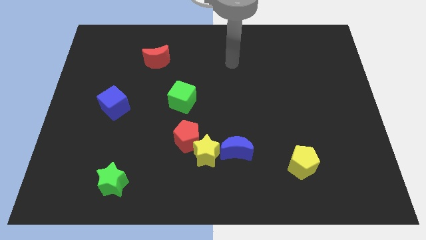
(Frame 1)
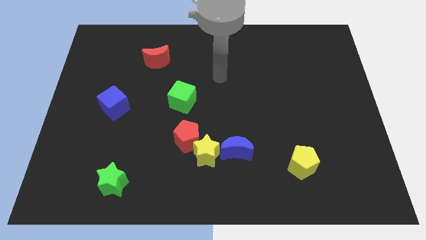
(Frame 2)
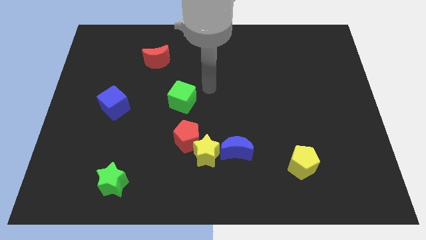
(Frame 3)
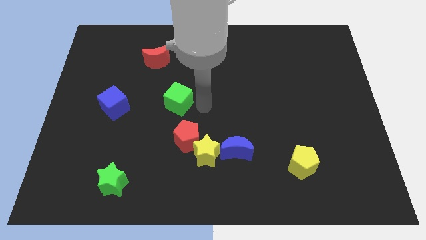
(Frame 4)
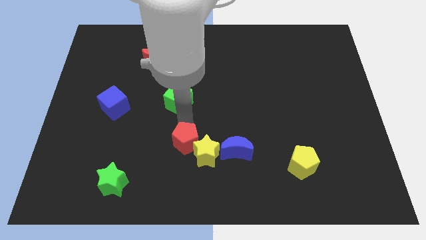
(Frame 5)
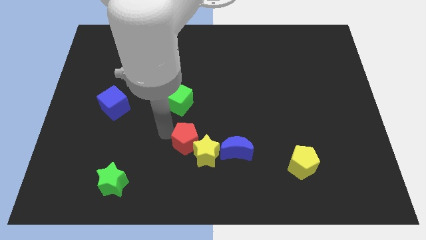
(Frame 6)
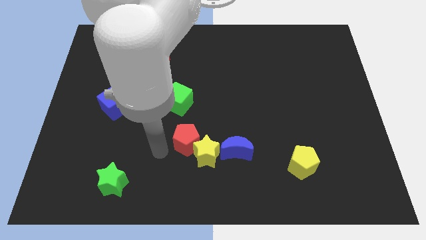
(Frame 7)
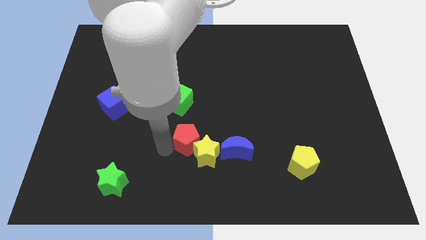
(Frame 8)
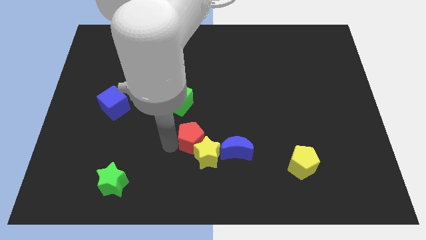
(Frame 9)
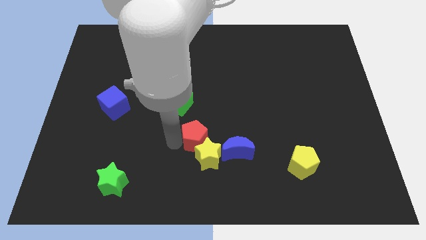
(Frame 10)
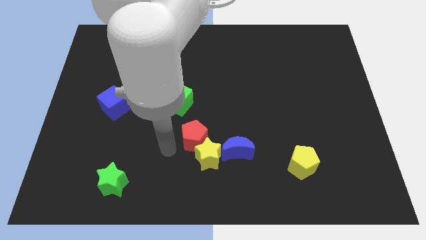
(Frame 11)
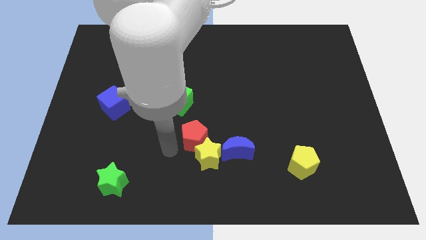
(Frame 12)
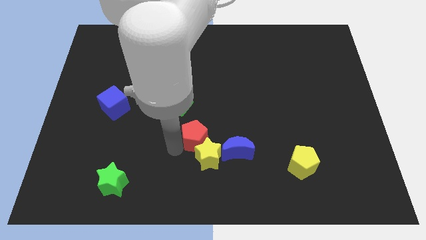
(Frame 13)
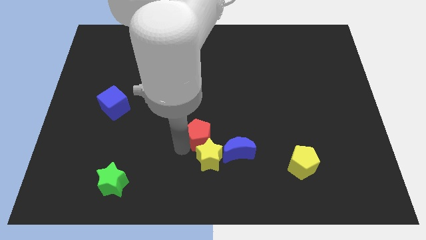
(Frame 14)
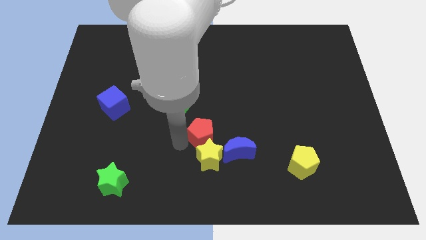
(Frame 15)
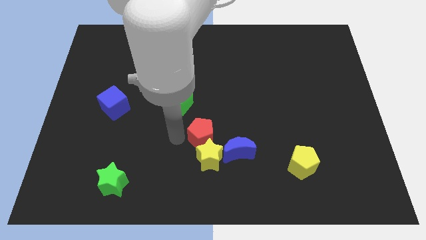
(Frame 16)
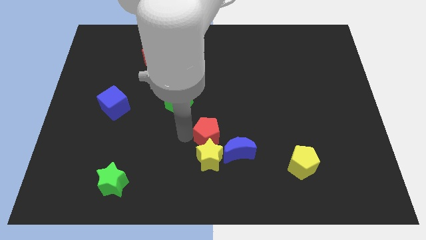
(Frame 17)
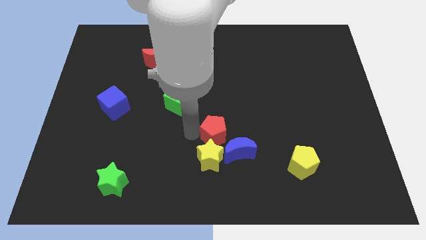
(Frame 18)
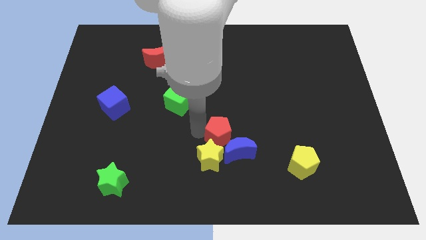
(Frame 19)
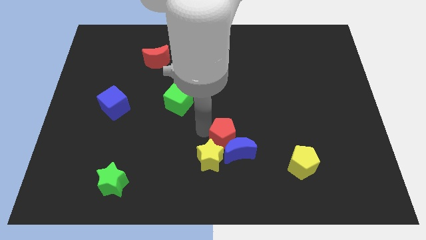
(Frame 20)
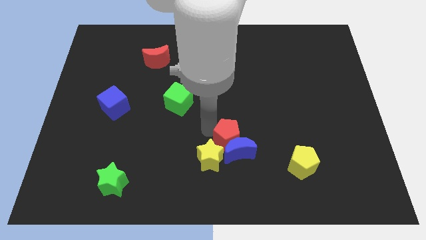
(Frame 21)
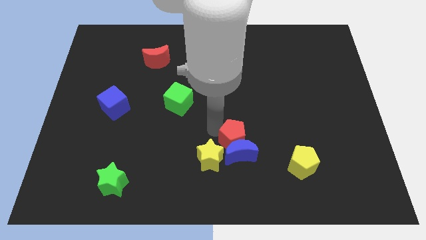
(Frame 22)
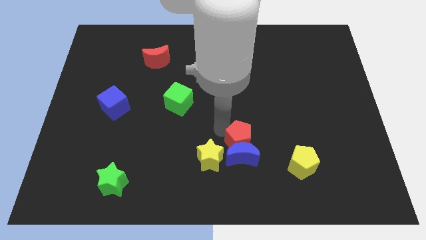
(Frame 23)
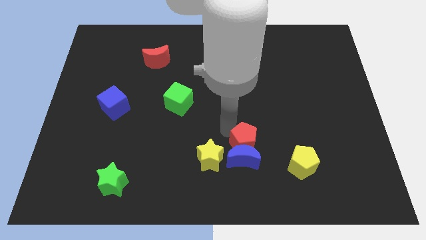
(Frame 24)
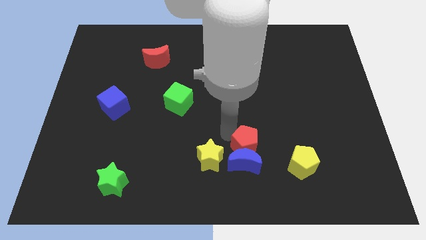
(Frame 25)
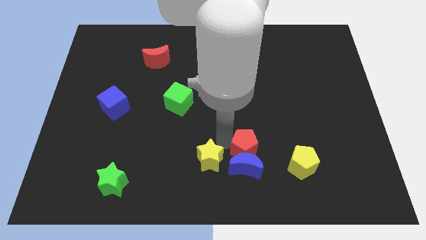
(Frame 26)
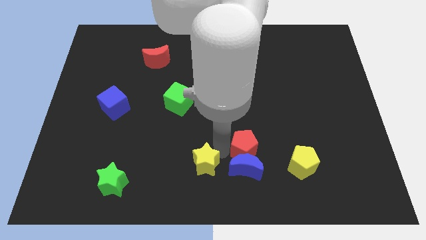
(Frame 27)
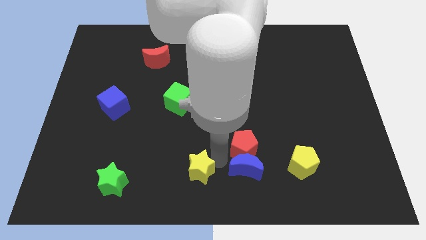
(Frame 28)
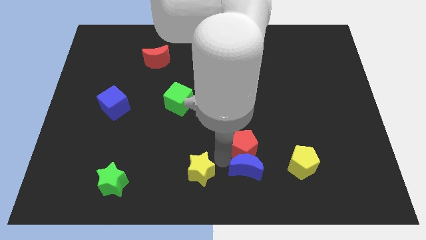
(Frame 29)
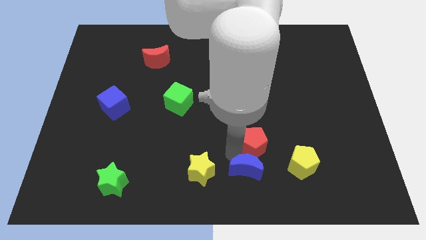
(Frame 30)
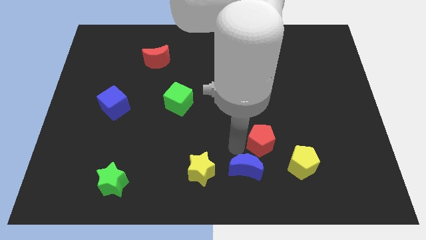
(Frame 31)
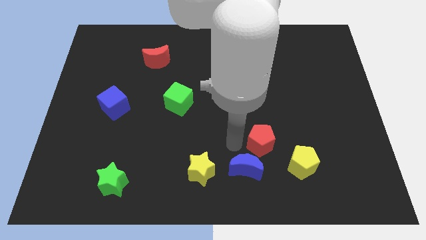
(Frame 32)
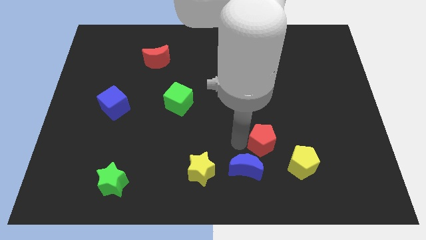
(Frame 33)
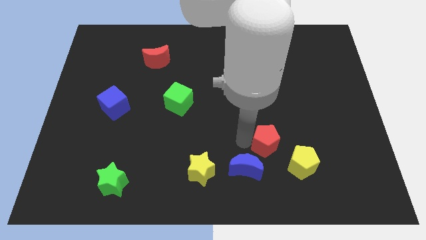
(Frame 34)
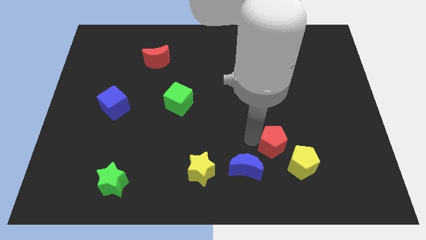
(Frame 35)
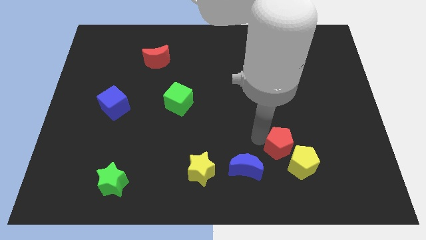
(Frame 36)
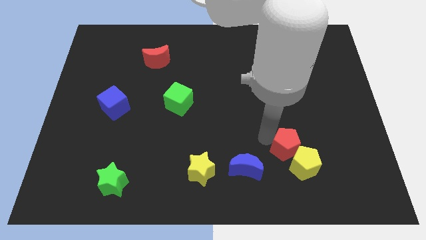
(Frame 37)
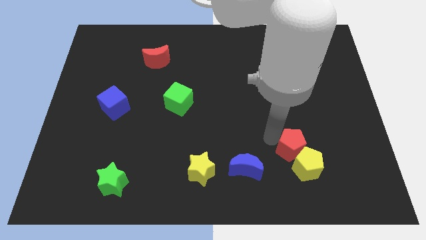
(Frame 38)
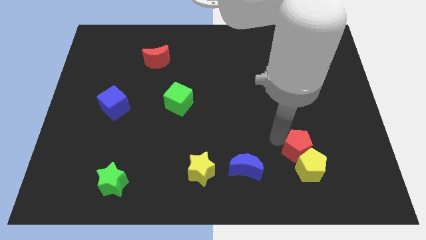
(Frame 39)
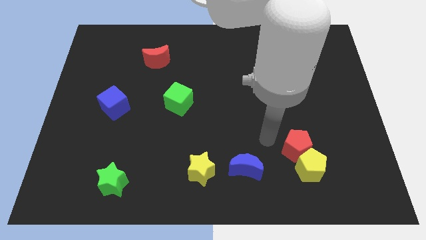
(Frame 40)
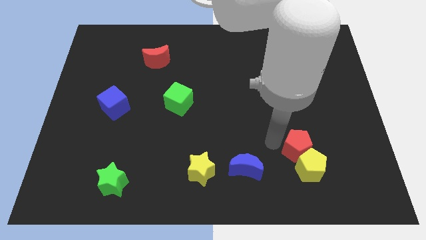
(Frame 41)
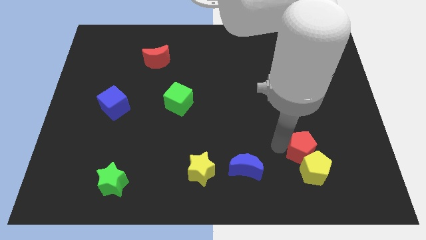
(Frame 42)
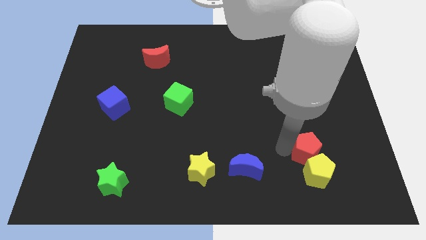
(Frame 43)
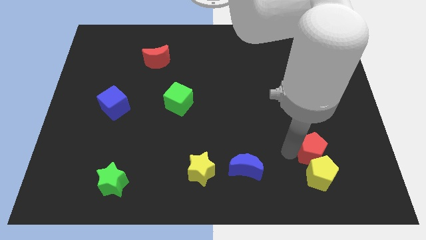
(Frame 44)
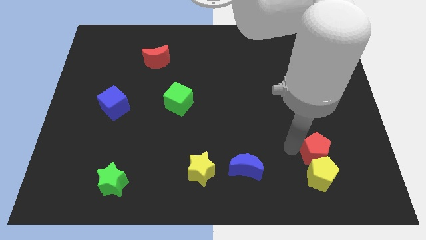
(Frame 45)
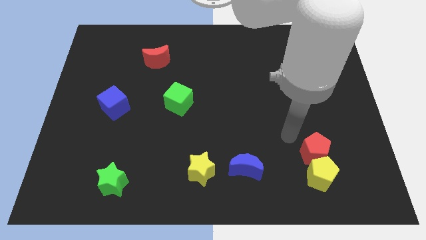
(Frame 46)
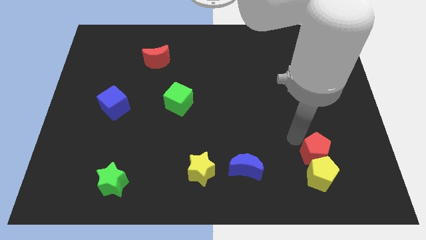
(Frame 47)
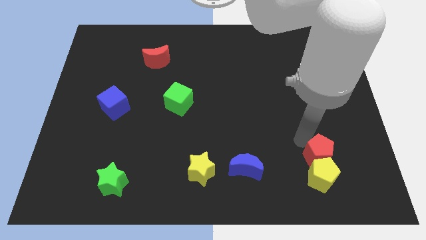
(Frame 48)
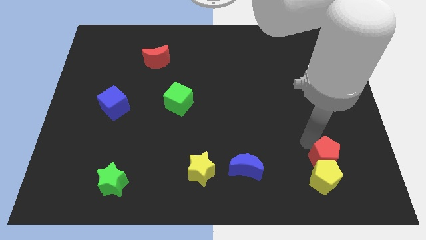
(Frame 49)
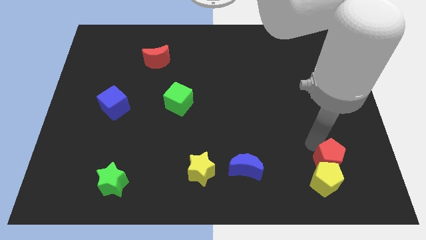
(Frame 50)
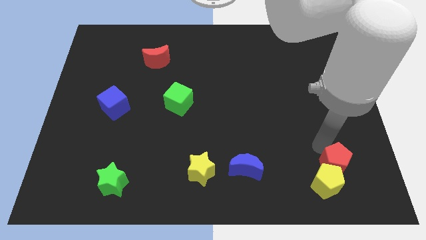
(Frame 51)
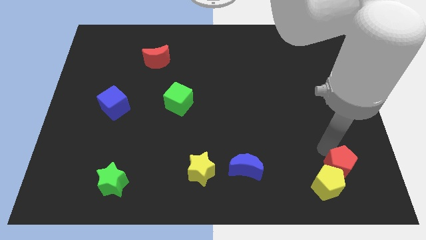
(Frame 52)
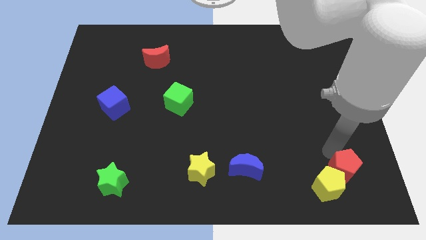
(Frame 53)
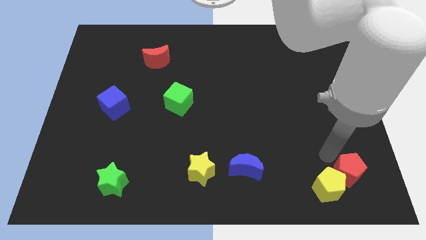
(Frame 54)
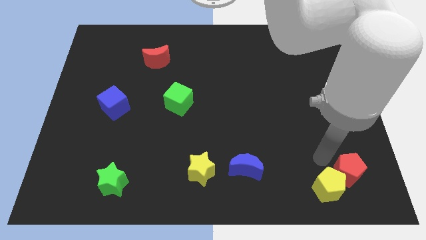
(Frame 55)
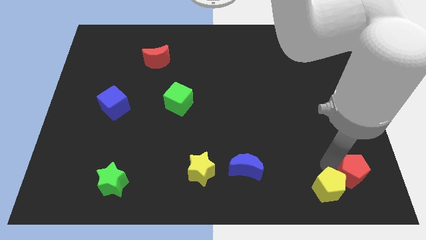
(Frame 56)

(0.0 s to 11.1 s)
put the red pentagon to the lower right corner
